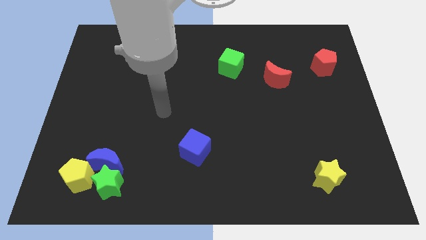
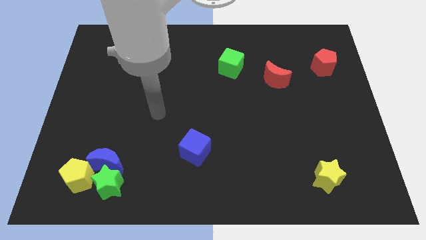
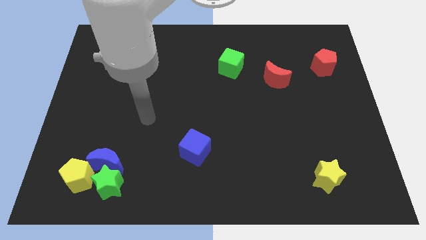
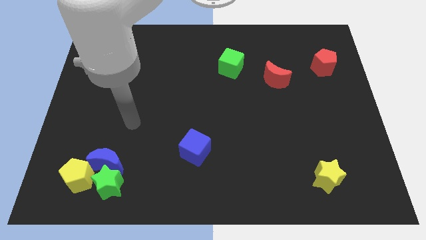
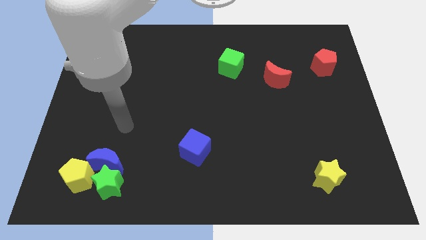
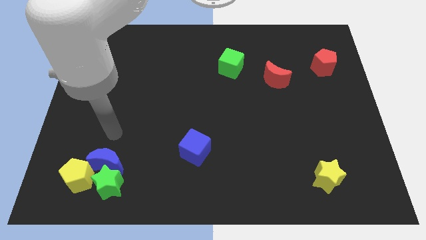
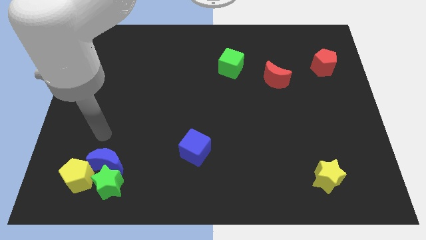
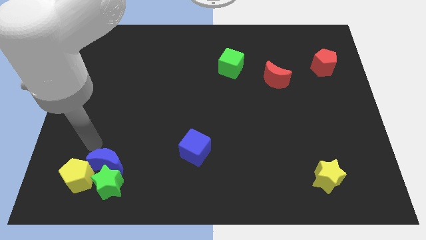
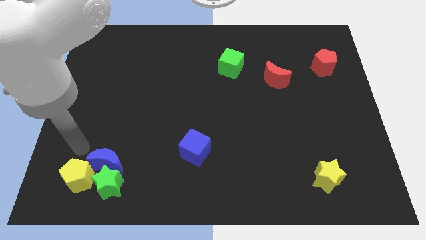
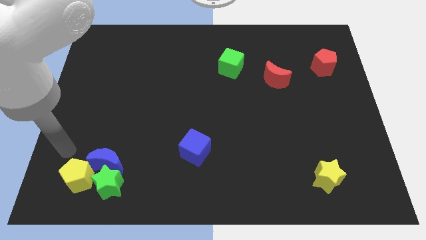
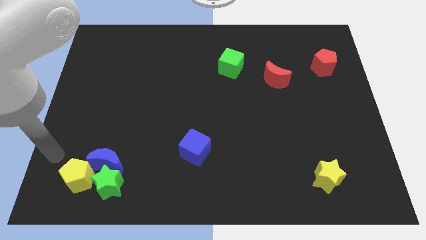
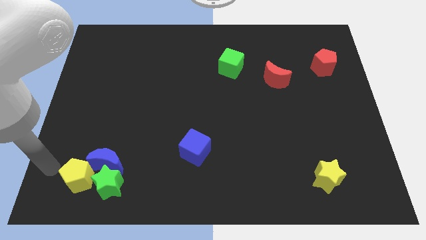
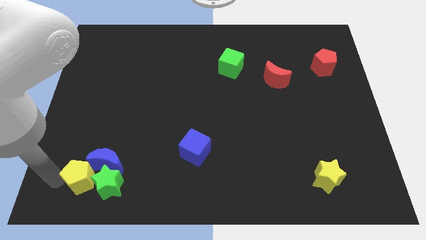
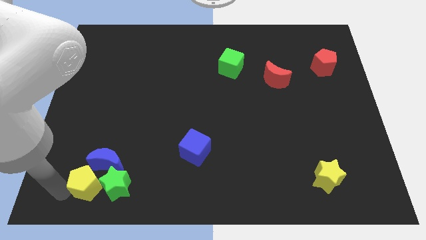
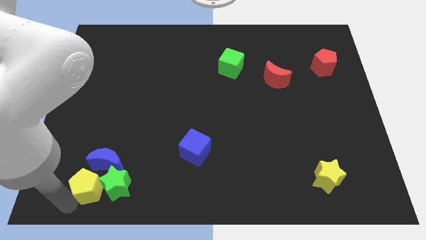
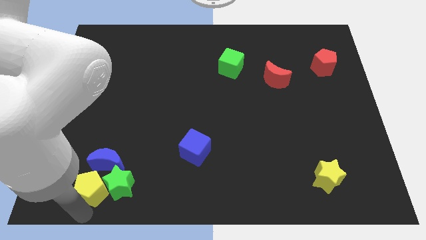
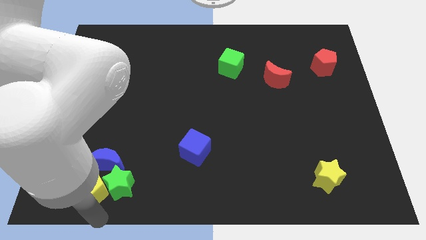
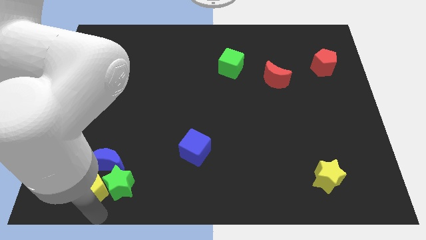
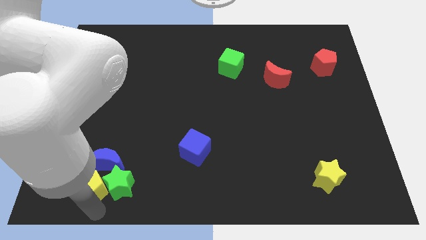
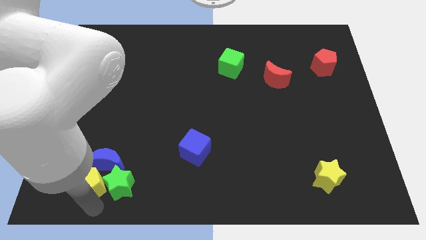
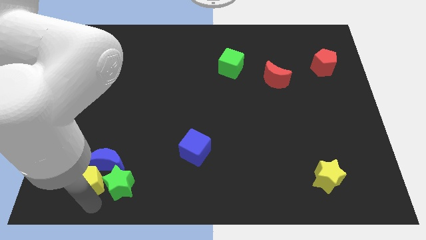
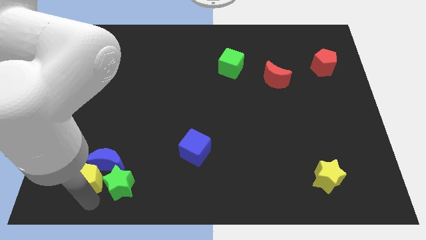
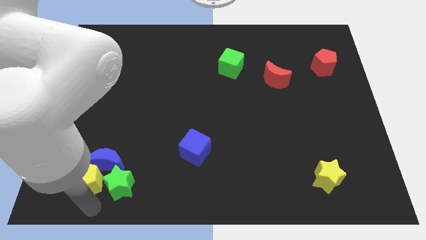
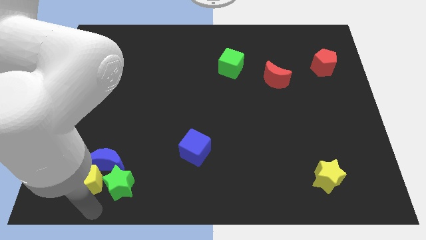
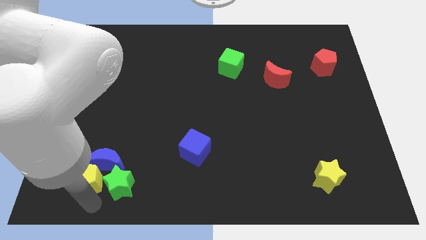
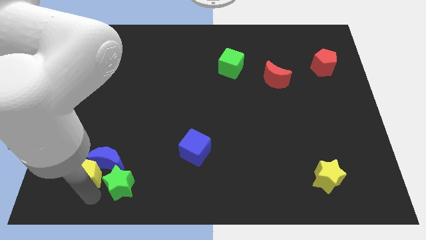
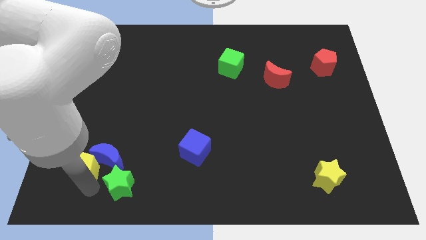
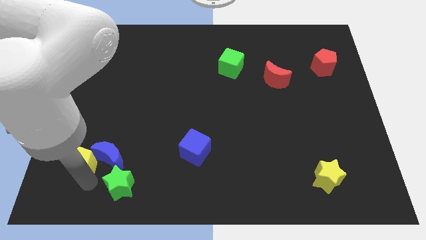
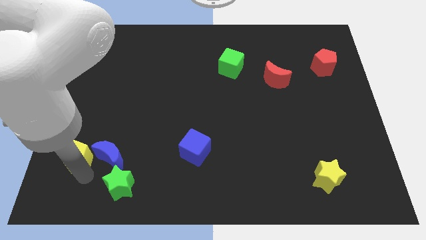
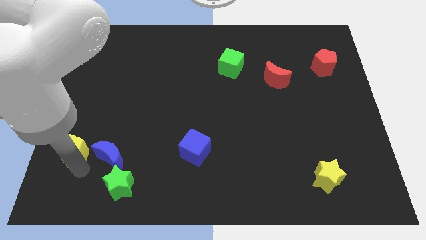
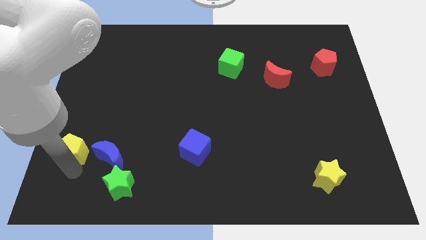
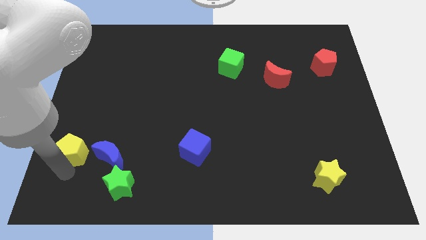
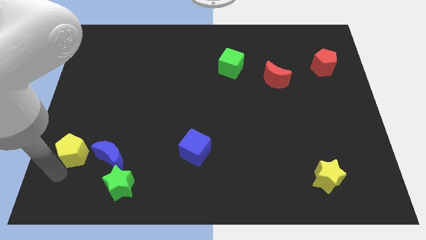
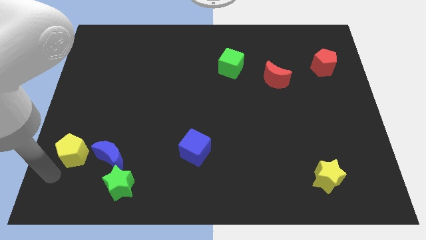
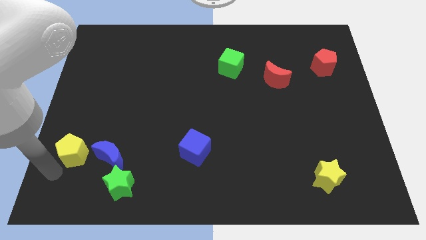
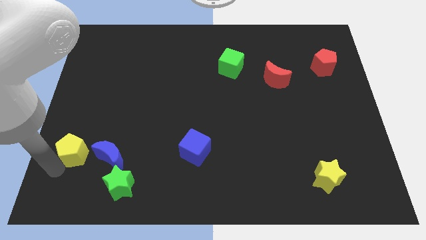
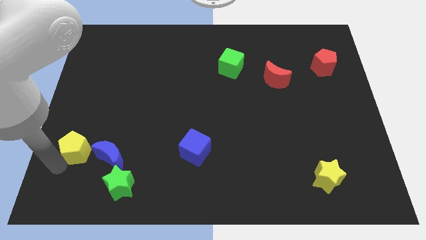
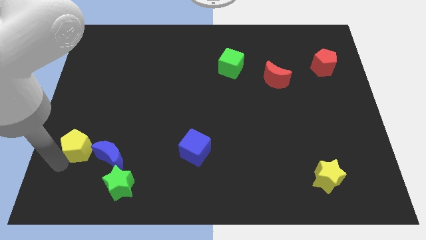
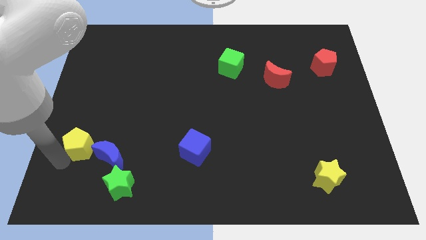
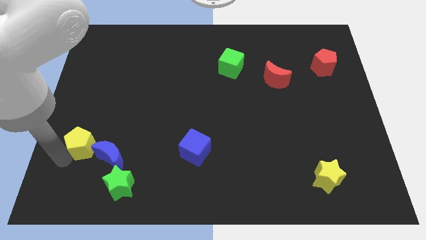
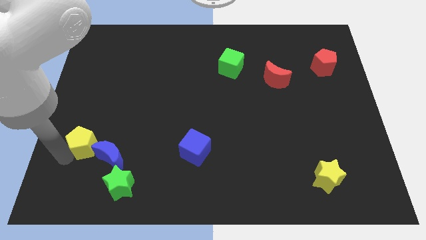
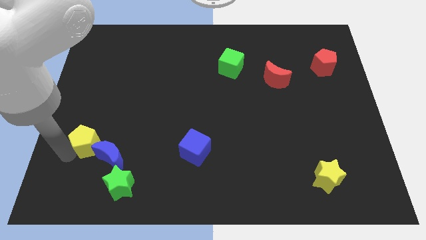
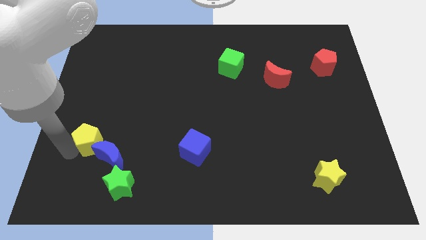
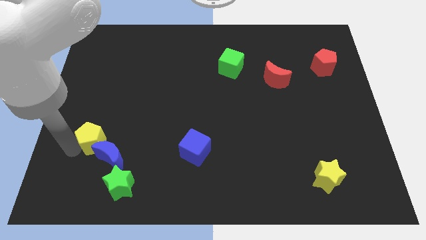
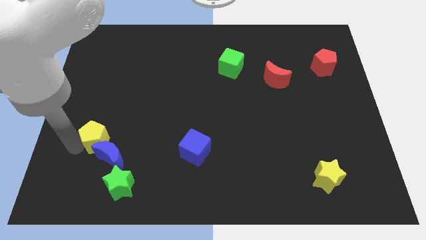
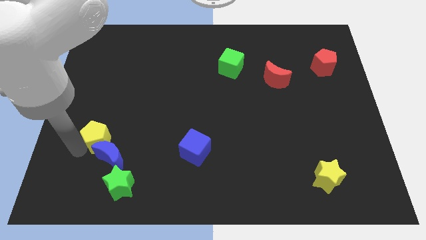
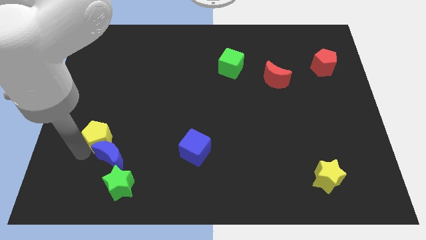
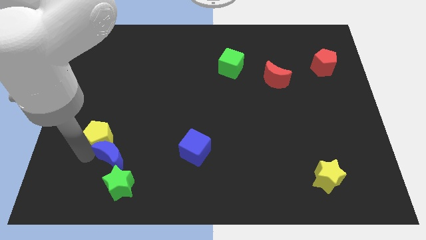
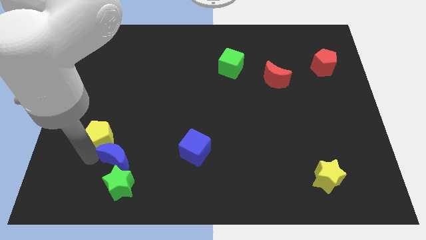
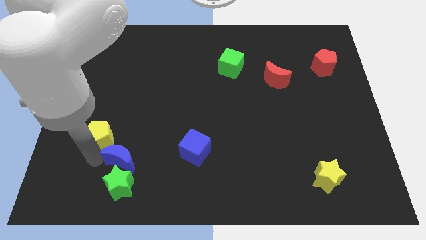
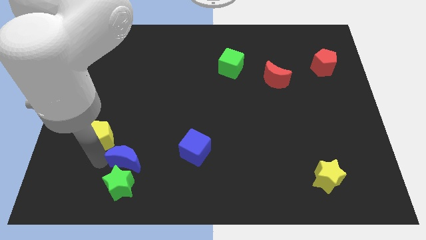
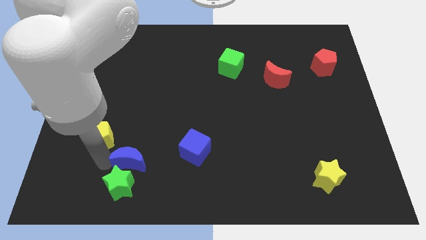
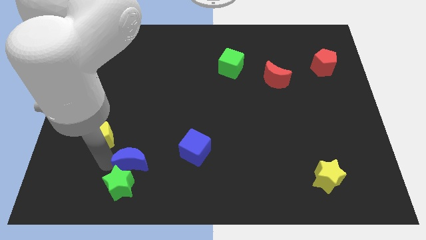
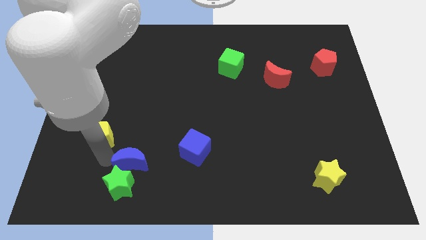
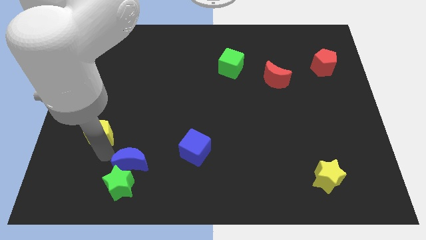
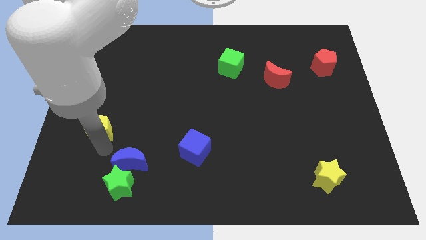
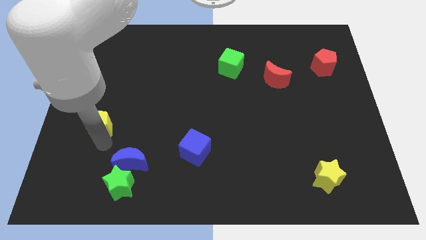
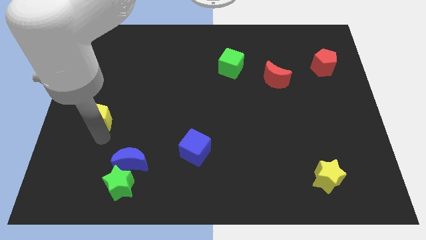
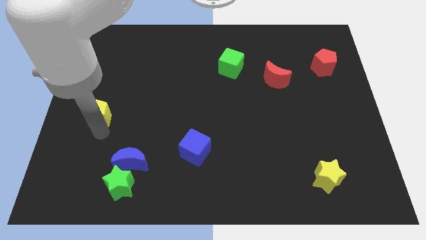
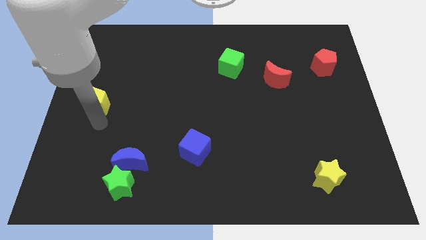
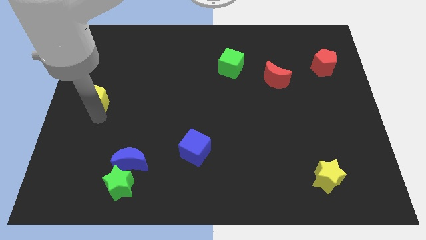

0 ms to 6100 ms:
move the yellow pentagon up

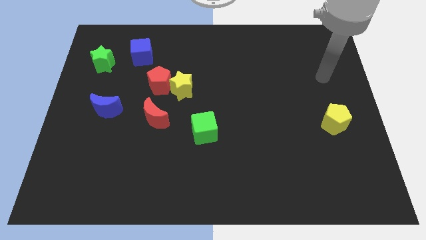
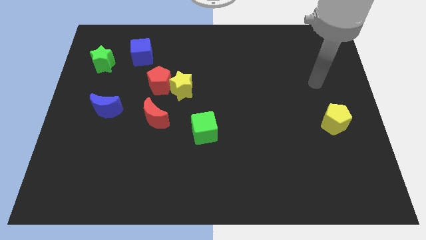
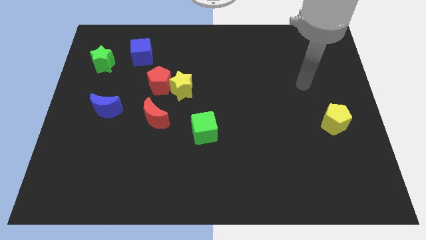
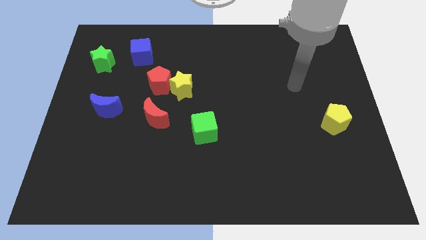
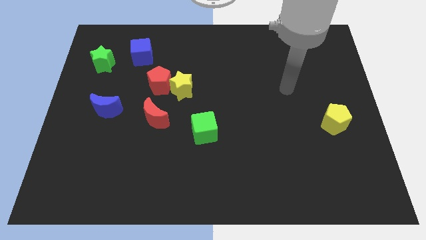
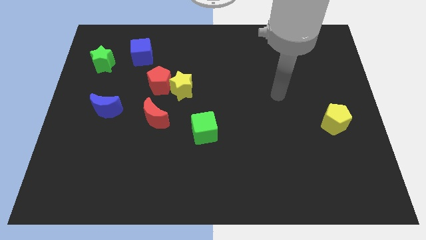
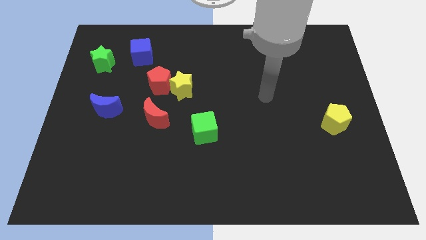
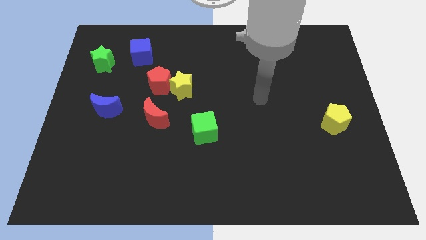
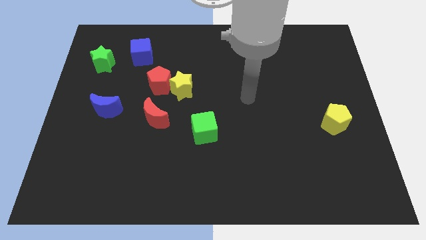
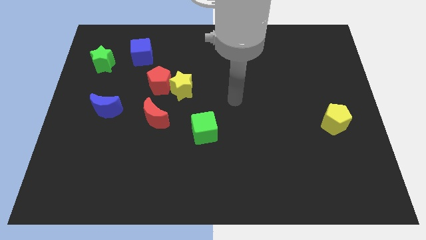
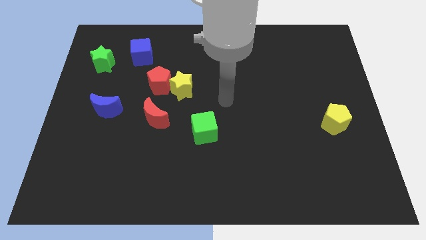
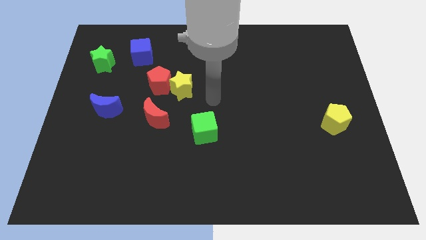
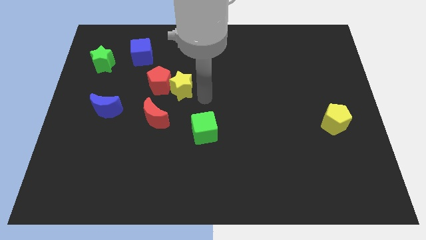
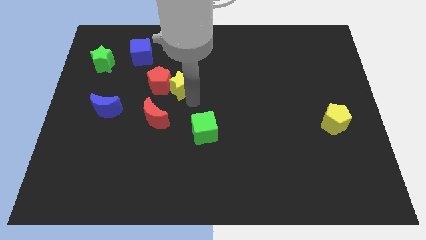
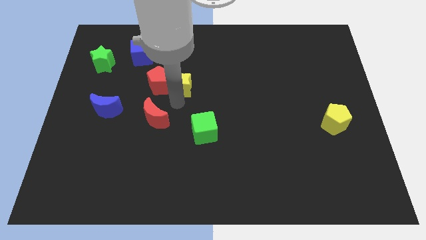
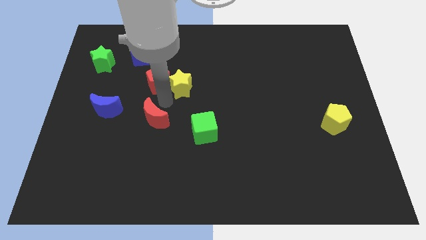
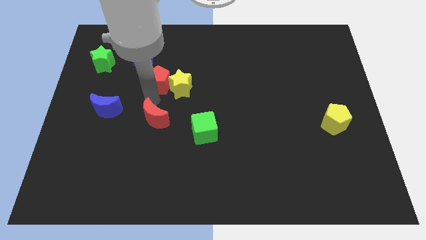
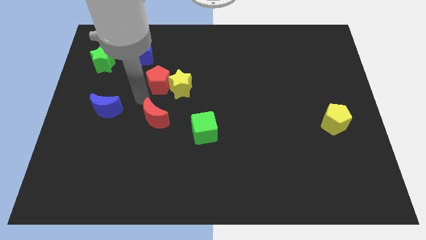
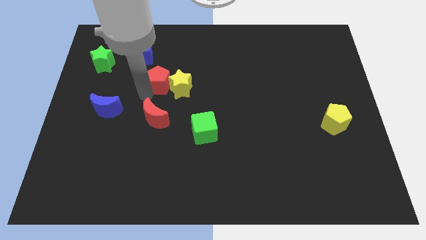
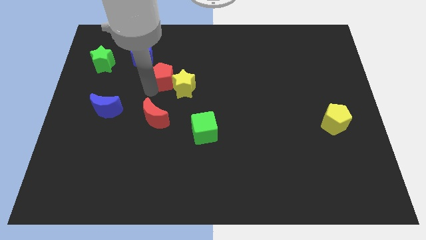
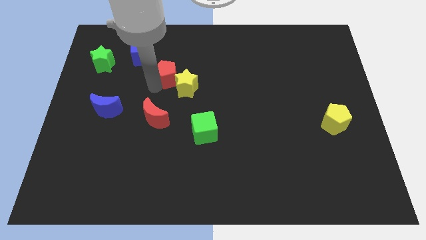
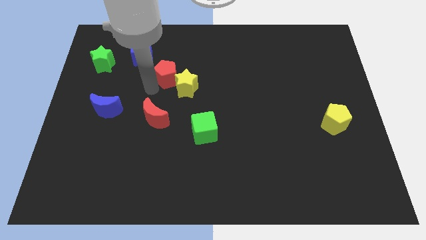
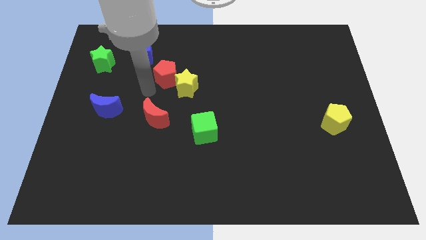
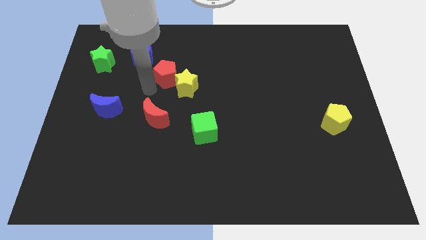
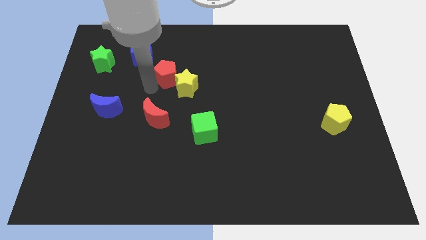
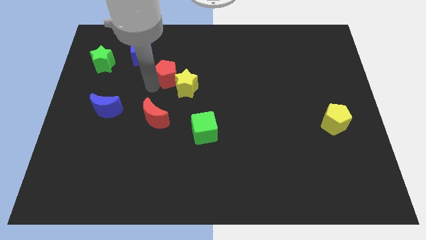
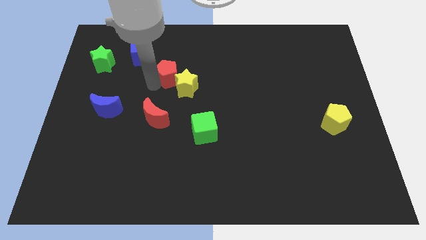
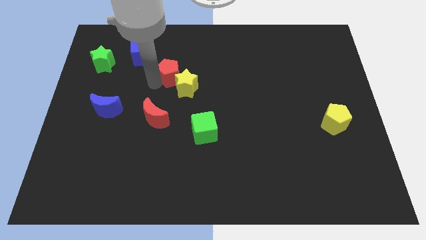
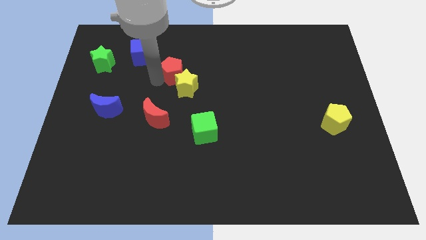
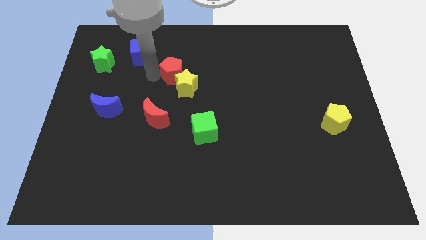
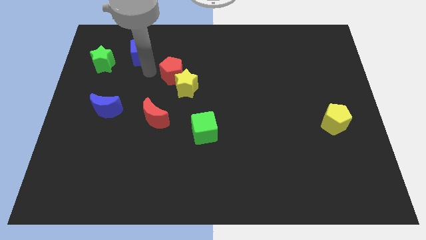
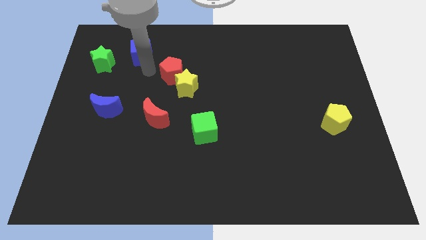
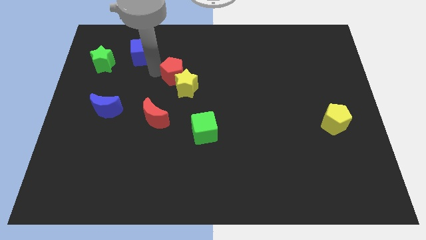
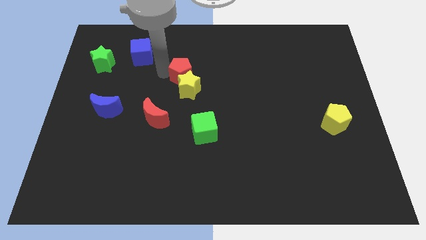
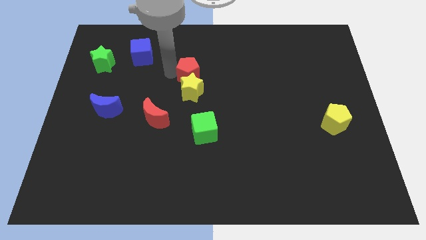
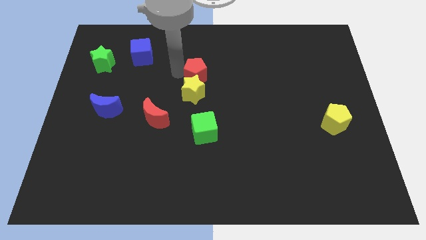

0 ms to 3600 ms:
slightly move the red pentagon right
